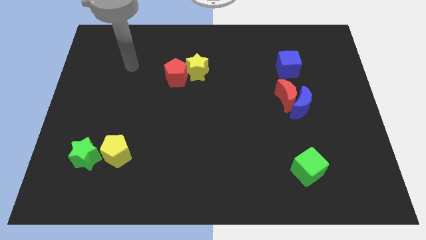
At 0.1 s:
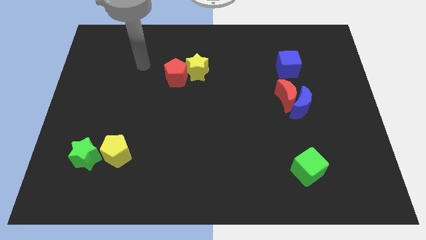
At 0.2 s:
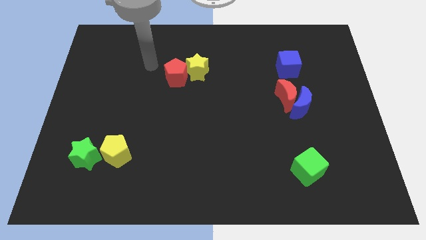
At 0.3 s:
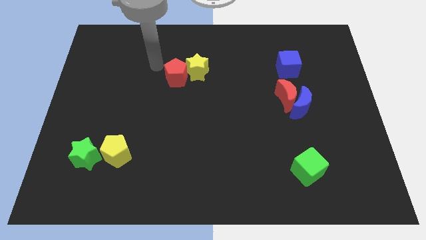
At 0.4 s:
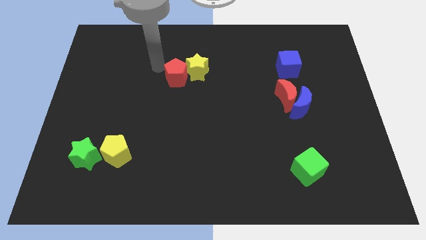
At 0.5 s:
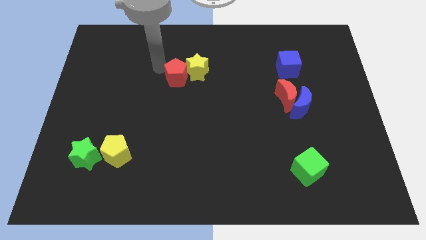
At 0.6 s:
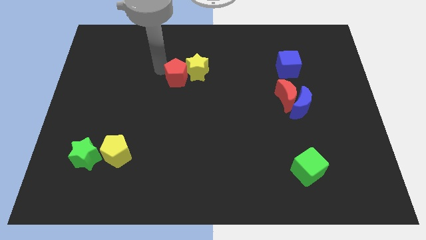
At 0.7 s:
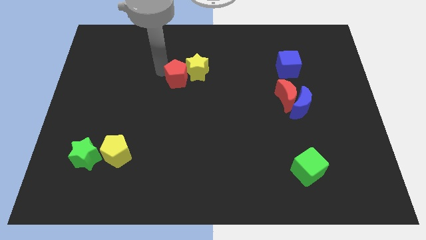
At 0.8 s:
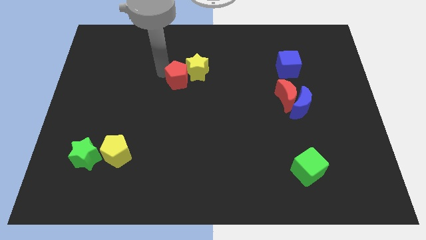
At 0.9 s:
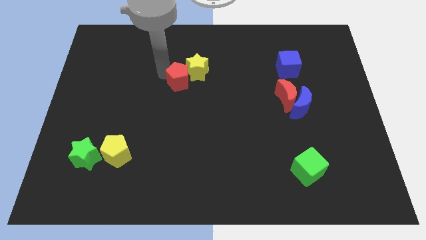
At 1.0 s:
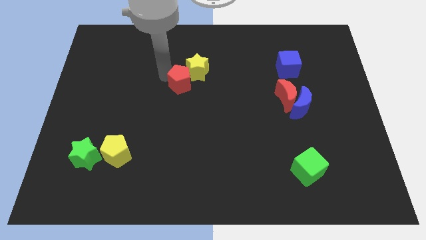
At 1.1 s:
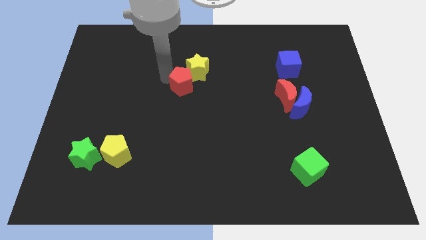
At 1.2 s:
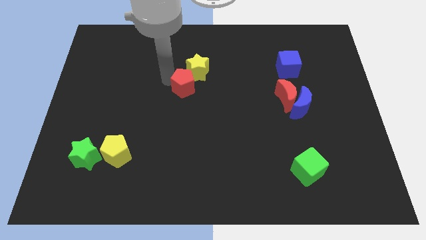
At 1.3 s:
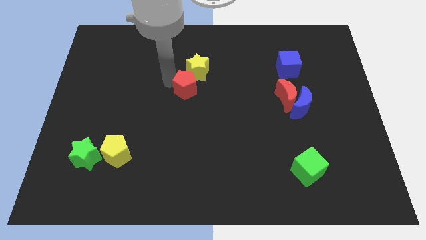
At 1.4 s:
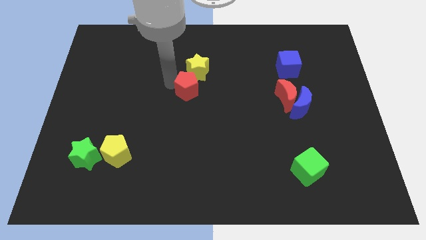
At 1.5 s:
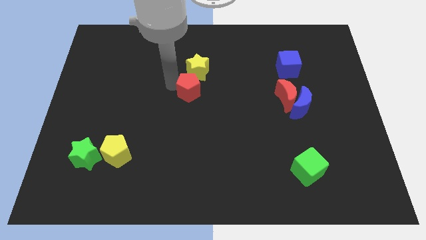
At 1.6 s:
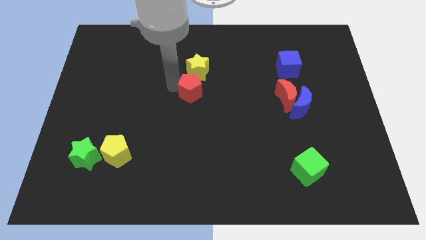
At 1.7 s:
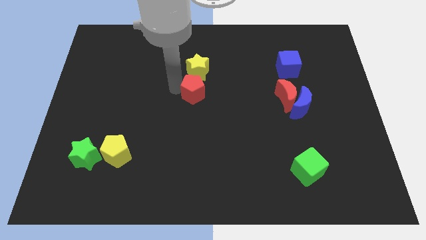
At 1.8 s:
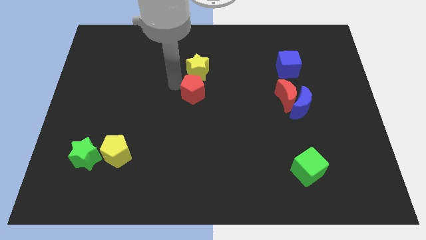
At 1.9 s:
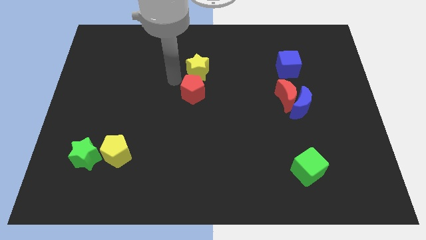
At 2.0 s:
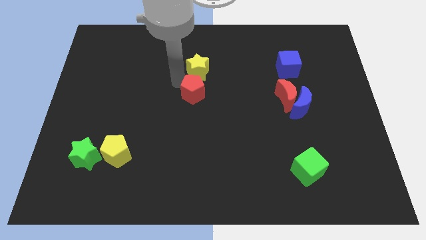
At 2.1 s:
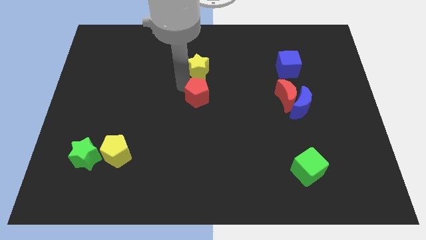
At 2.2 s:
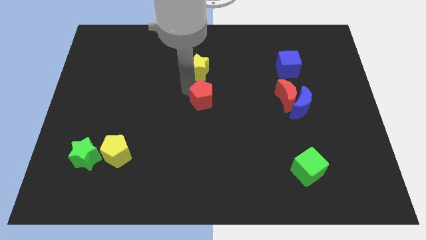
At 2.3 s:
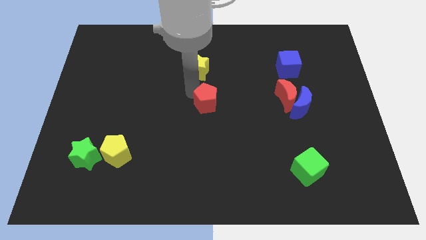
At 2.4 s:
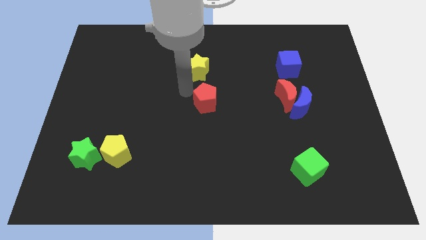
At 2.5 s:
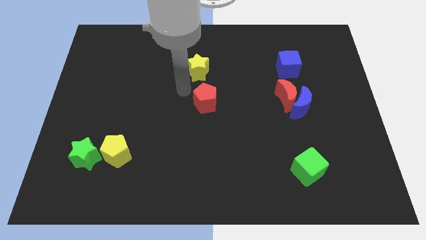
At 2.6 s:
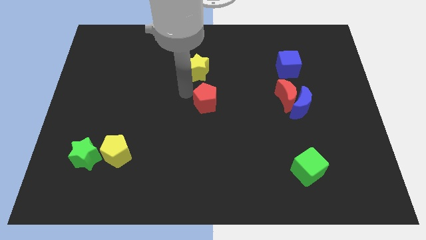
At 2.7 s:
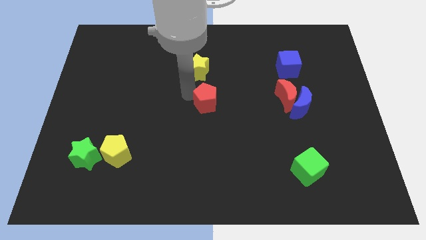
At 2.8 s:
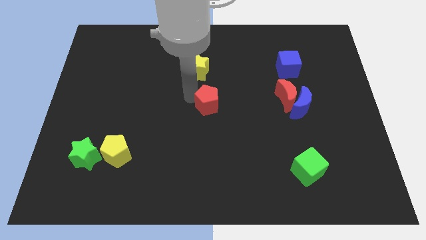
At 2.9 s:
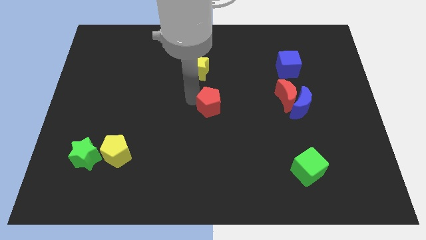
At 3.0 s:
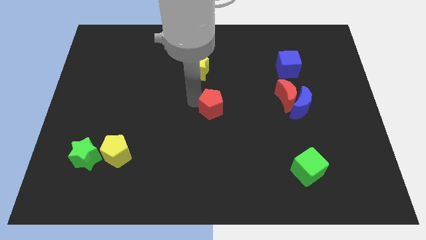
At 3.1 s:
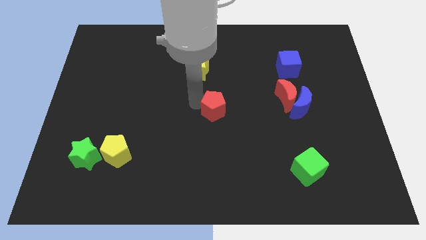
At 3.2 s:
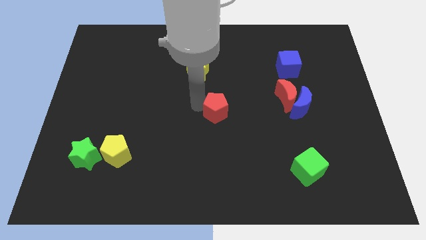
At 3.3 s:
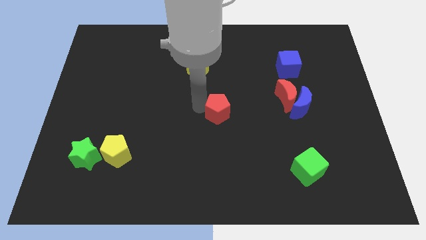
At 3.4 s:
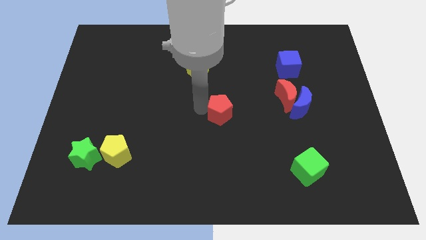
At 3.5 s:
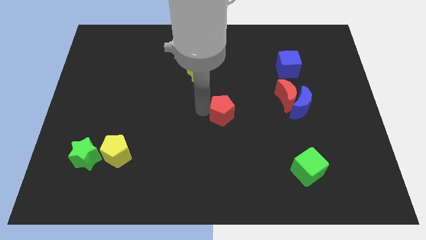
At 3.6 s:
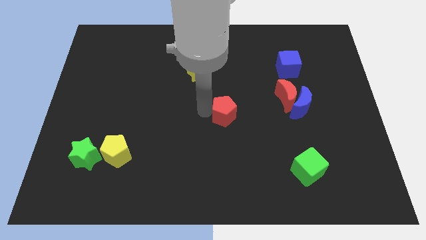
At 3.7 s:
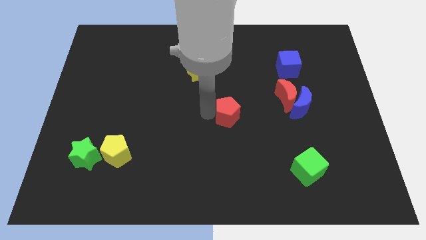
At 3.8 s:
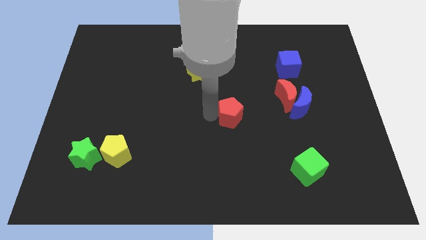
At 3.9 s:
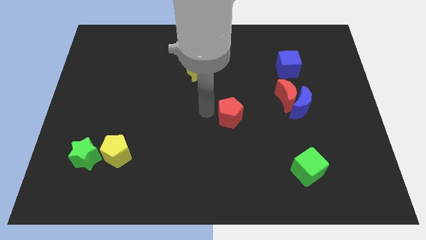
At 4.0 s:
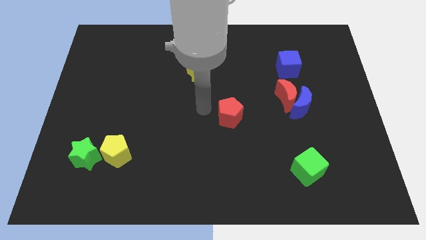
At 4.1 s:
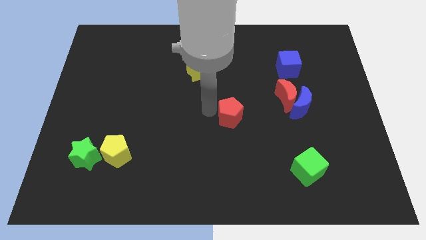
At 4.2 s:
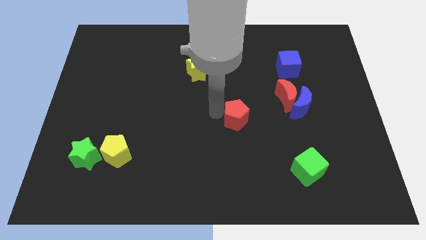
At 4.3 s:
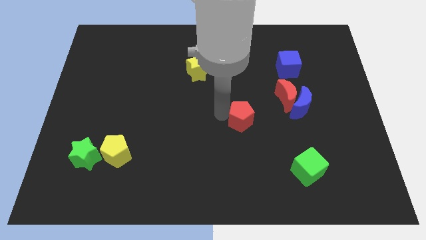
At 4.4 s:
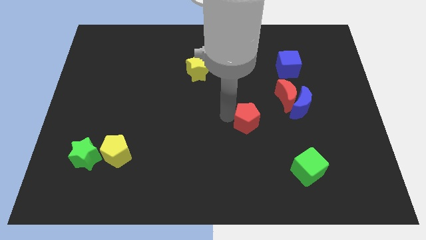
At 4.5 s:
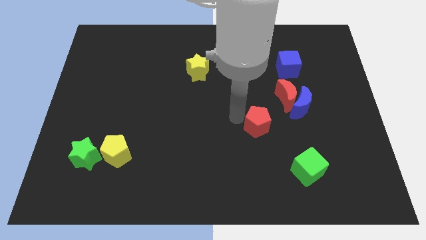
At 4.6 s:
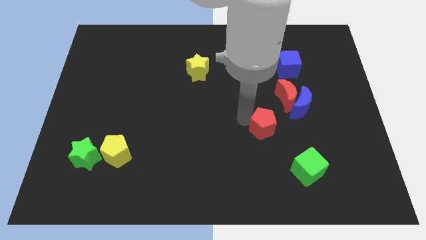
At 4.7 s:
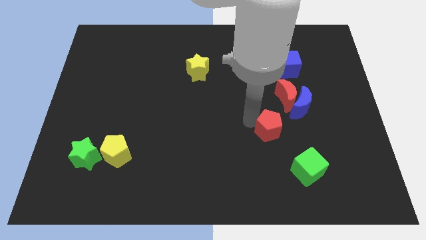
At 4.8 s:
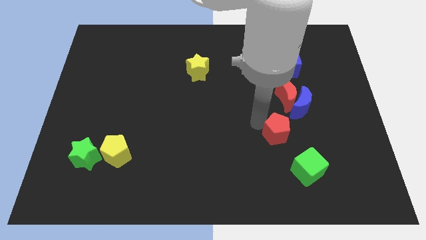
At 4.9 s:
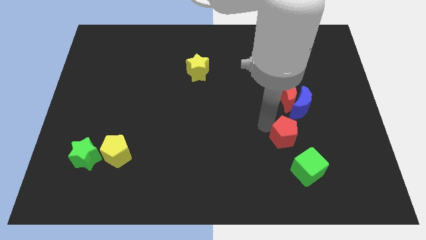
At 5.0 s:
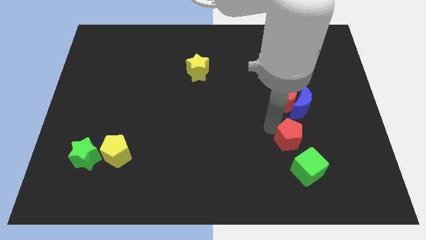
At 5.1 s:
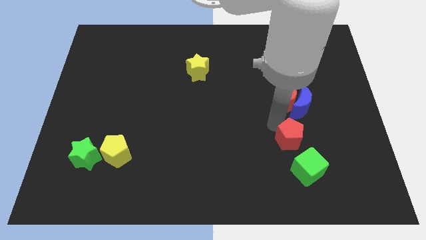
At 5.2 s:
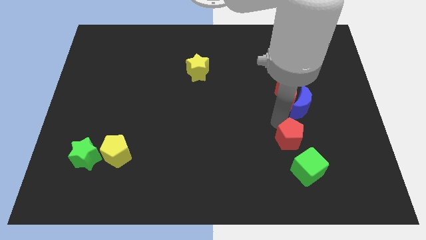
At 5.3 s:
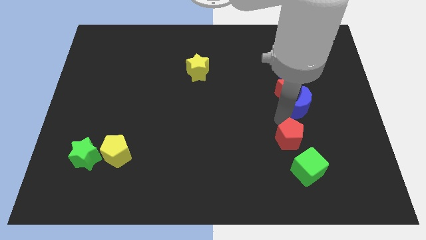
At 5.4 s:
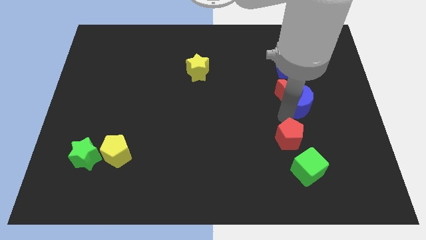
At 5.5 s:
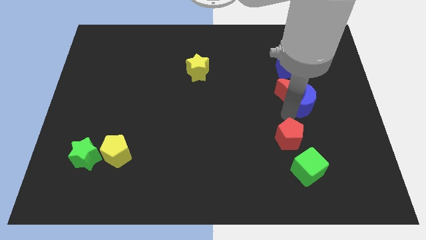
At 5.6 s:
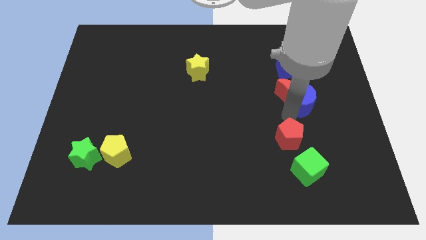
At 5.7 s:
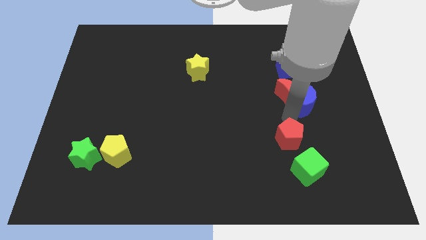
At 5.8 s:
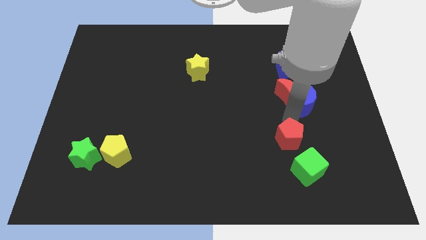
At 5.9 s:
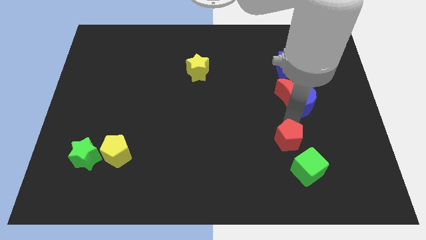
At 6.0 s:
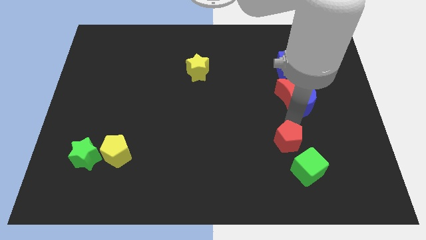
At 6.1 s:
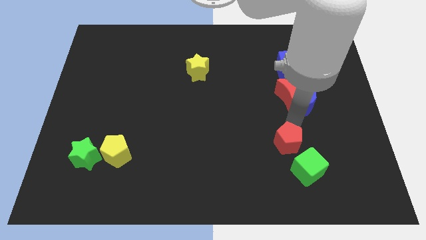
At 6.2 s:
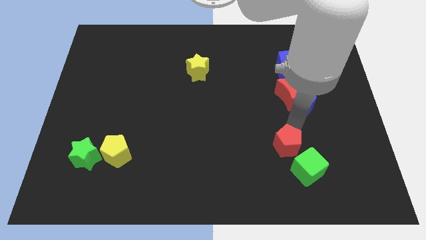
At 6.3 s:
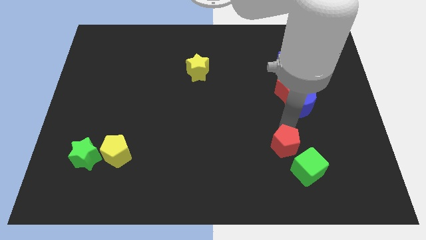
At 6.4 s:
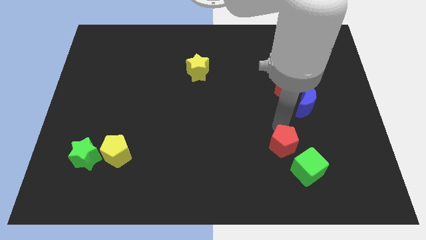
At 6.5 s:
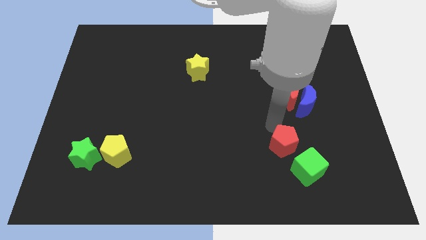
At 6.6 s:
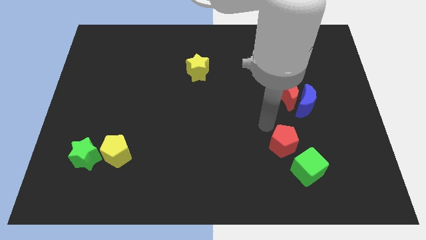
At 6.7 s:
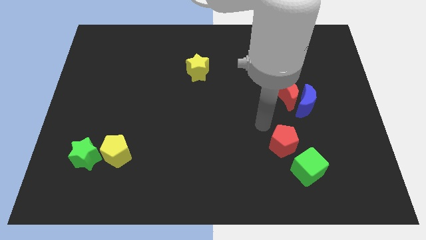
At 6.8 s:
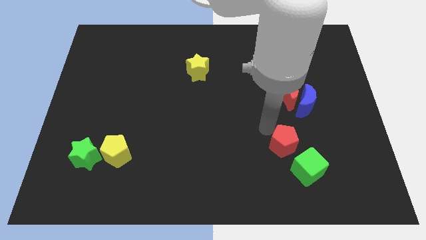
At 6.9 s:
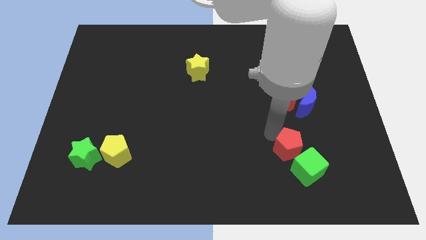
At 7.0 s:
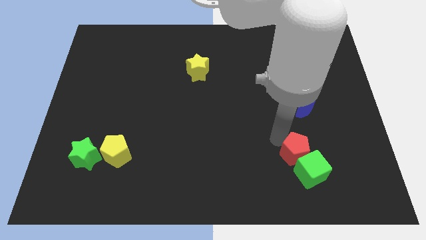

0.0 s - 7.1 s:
slide the red pentagon to the green cube
